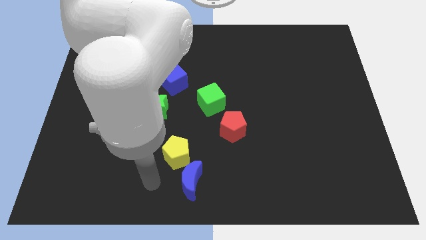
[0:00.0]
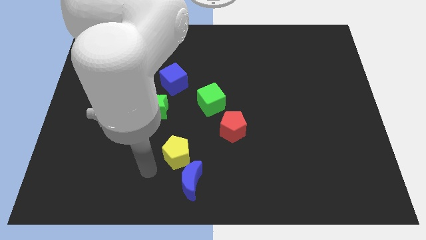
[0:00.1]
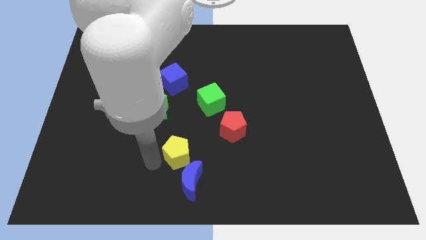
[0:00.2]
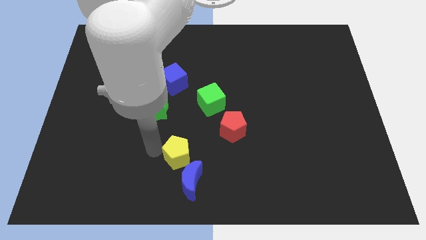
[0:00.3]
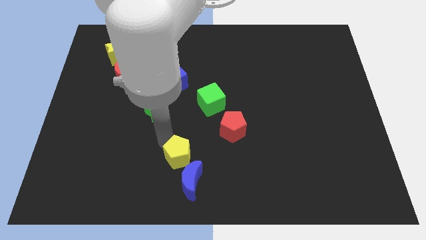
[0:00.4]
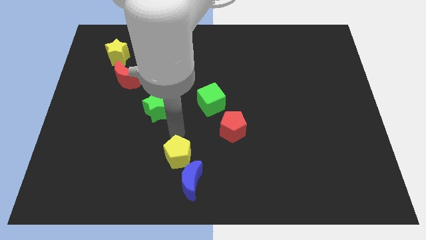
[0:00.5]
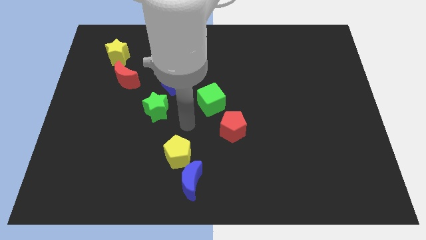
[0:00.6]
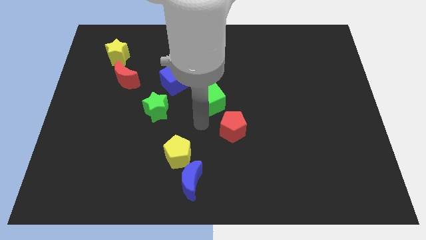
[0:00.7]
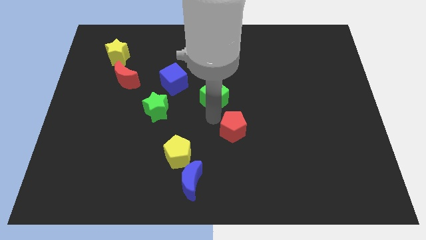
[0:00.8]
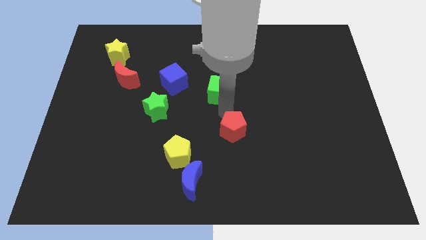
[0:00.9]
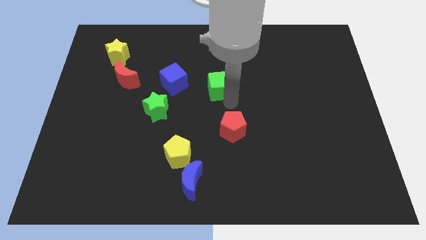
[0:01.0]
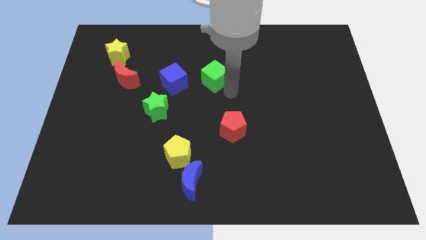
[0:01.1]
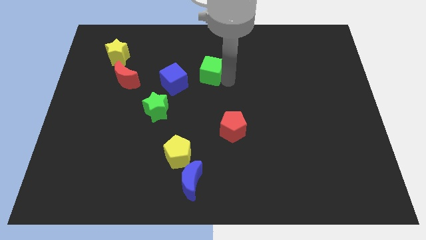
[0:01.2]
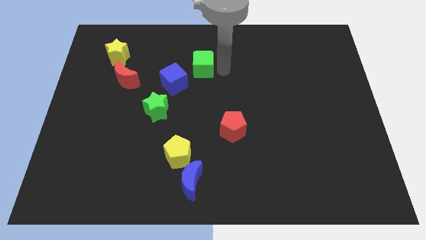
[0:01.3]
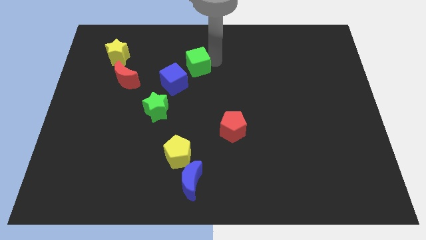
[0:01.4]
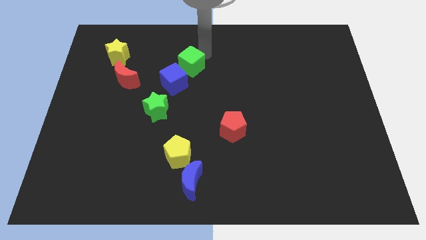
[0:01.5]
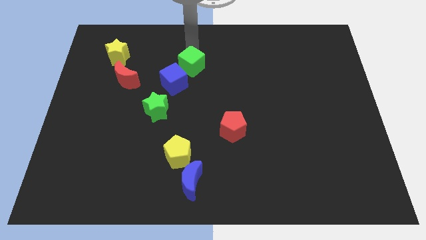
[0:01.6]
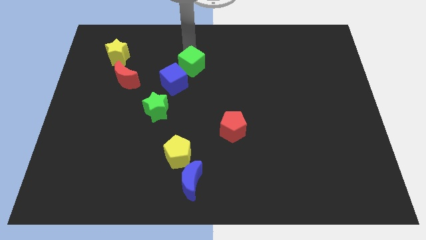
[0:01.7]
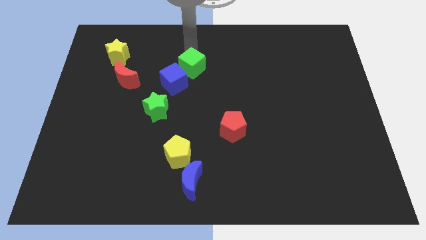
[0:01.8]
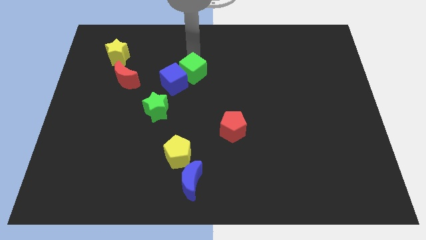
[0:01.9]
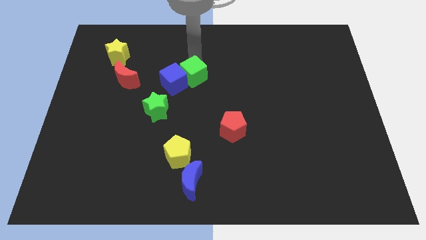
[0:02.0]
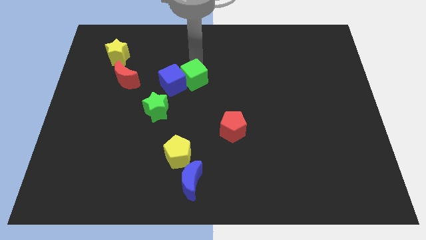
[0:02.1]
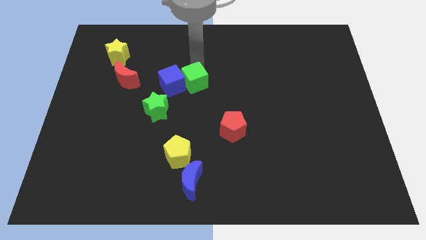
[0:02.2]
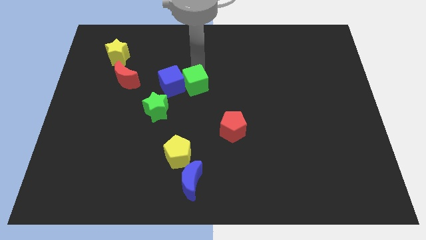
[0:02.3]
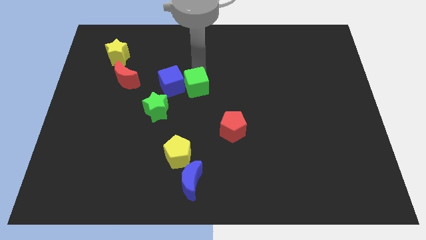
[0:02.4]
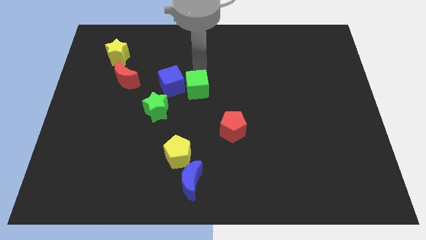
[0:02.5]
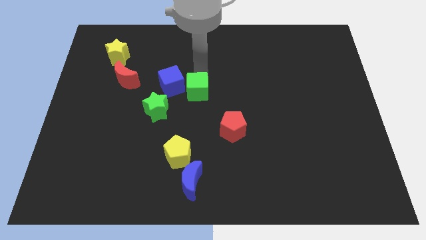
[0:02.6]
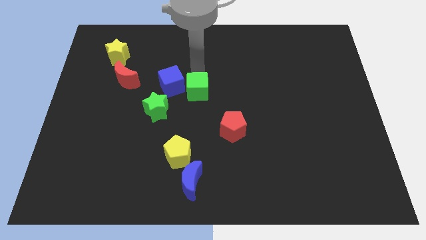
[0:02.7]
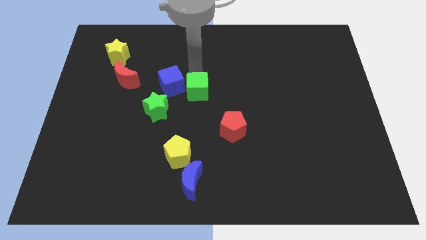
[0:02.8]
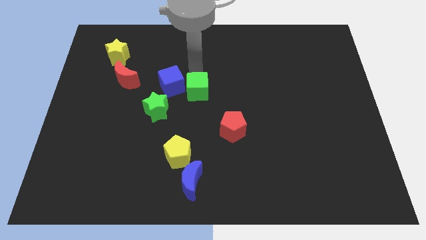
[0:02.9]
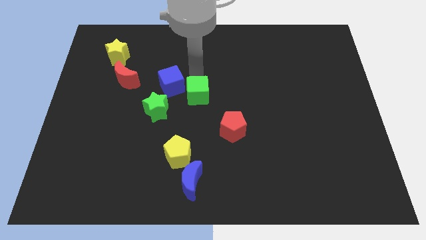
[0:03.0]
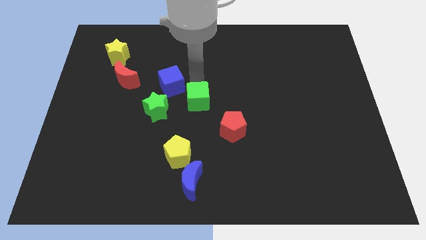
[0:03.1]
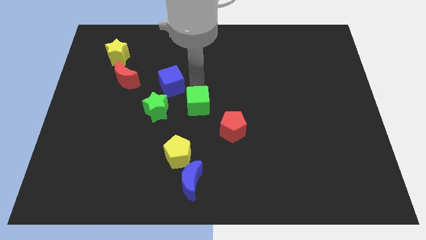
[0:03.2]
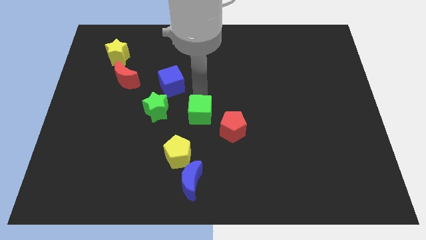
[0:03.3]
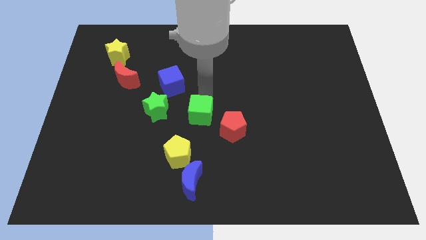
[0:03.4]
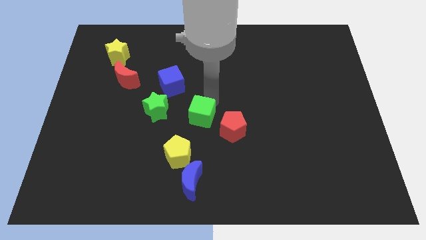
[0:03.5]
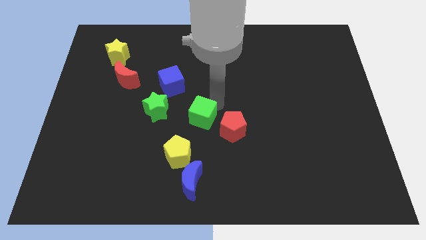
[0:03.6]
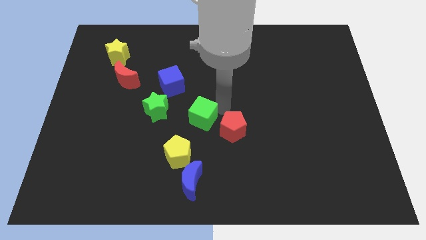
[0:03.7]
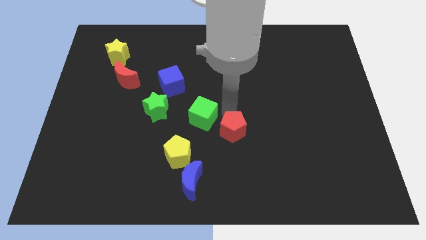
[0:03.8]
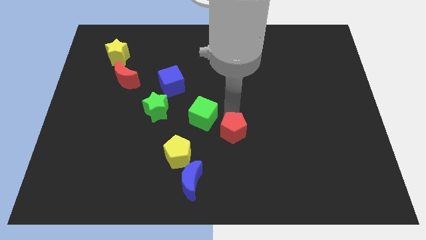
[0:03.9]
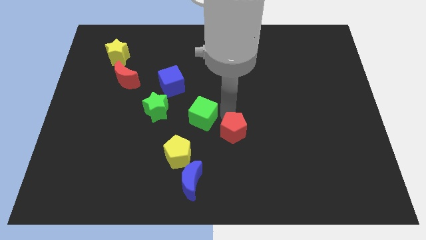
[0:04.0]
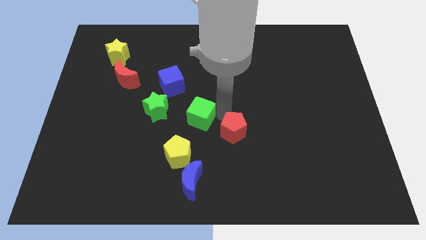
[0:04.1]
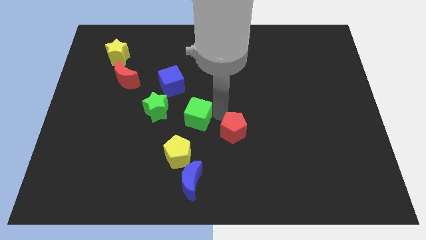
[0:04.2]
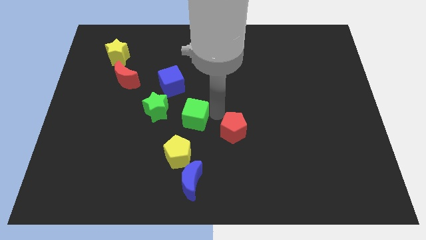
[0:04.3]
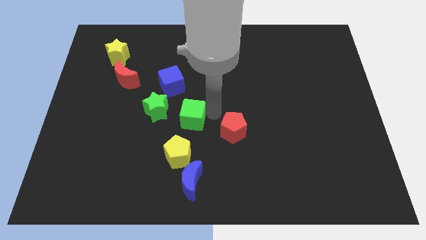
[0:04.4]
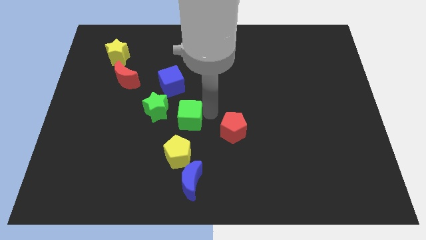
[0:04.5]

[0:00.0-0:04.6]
slide the green cube to the bottom of the blue cube

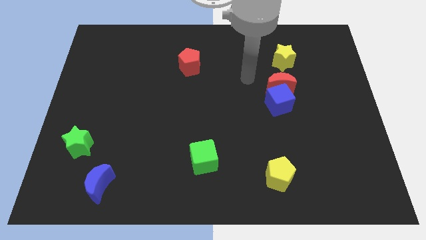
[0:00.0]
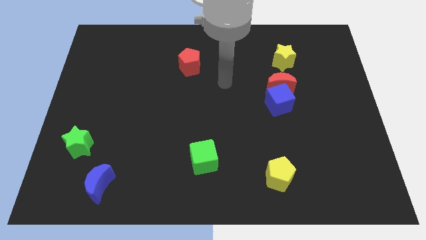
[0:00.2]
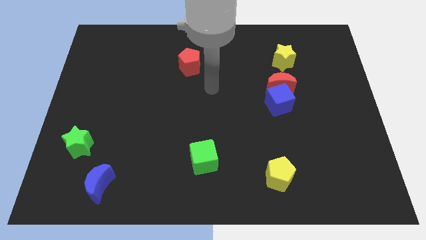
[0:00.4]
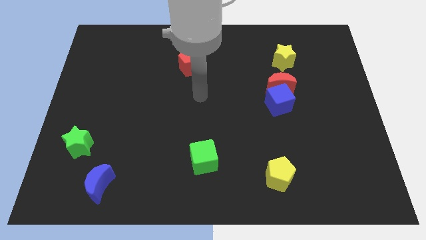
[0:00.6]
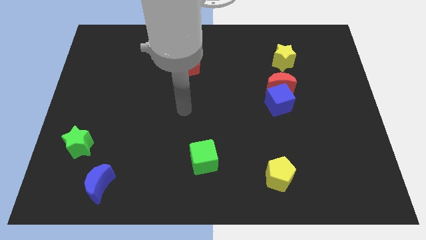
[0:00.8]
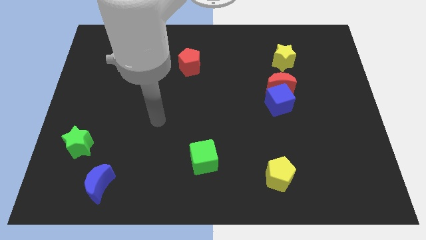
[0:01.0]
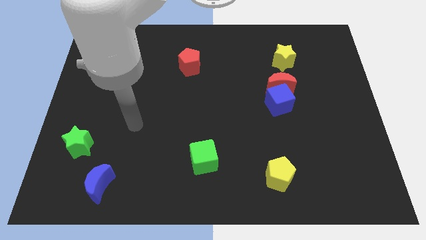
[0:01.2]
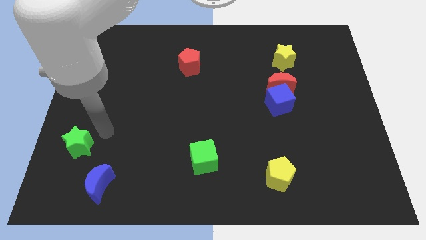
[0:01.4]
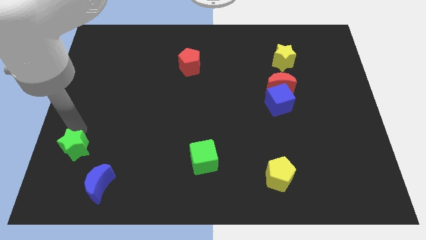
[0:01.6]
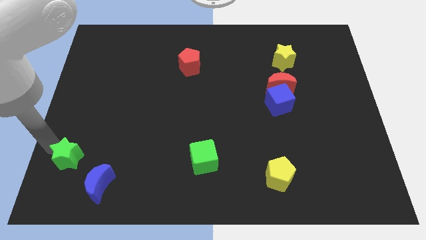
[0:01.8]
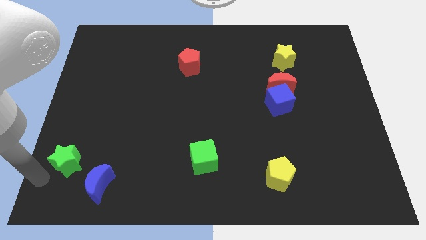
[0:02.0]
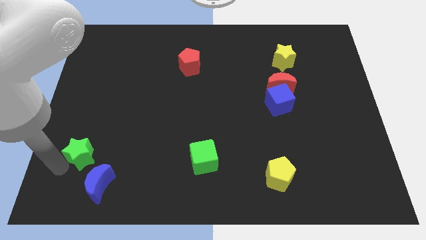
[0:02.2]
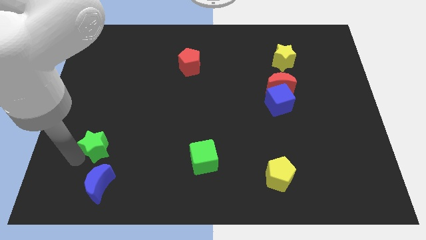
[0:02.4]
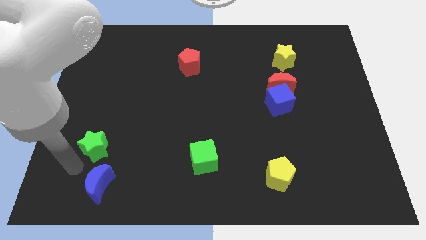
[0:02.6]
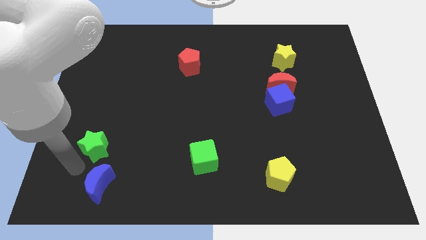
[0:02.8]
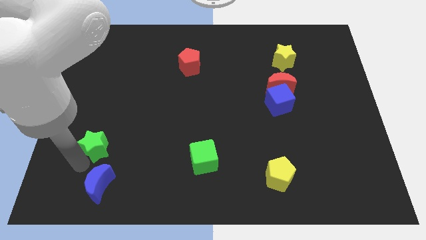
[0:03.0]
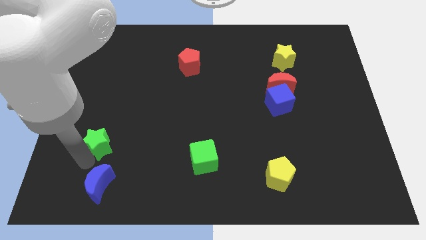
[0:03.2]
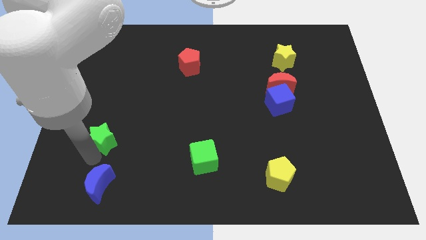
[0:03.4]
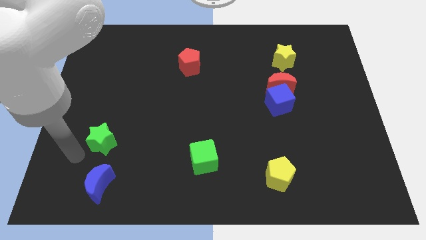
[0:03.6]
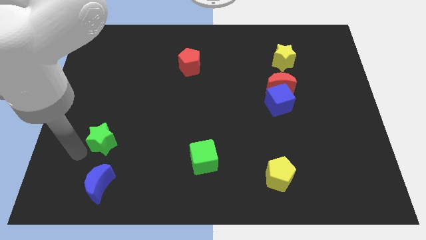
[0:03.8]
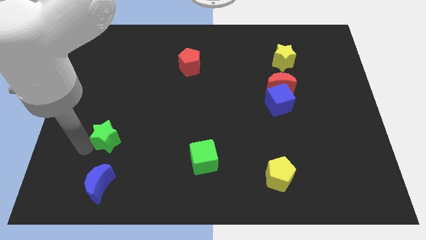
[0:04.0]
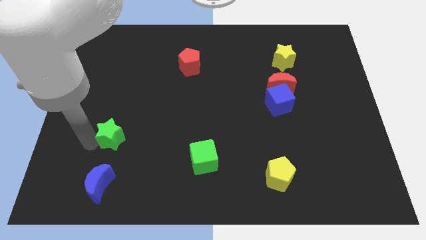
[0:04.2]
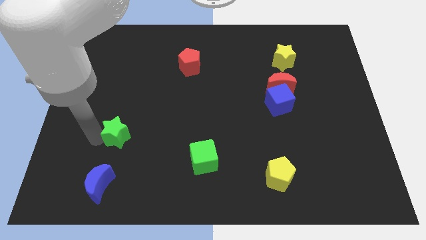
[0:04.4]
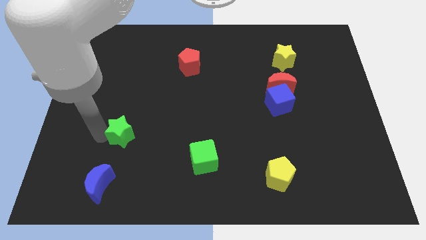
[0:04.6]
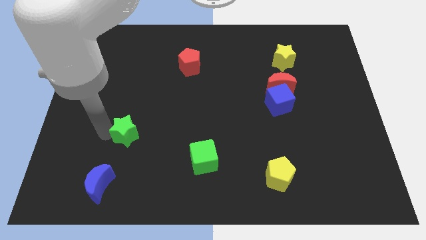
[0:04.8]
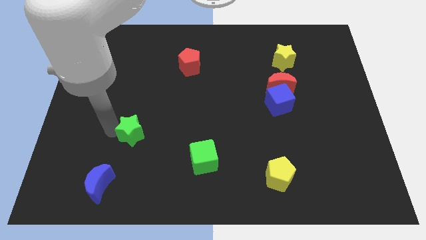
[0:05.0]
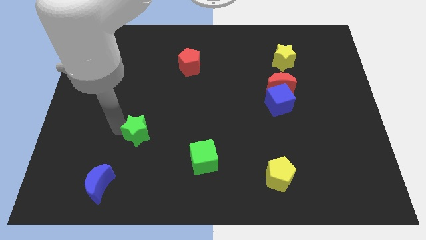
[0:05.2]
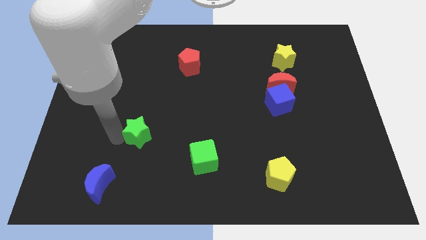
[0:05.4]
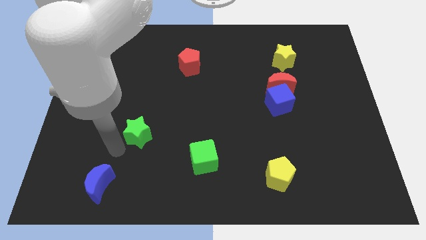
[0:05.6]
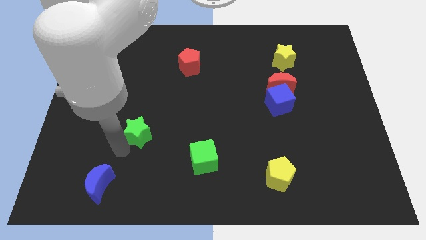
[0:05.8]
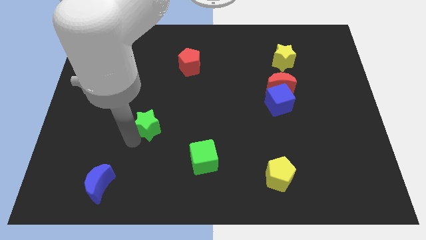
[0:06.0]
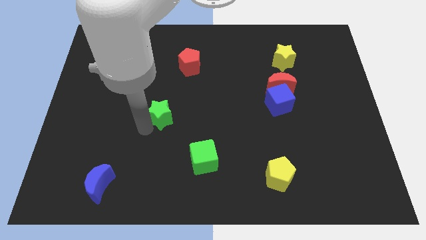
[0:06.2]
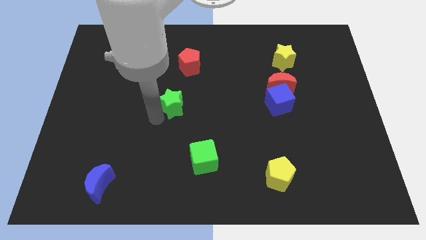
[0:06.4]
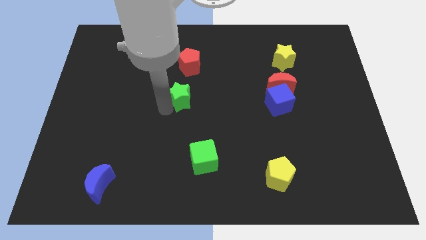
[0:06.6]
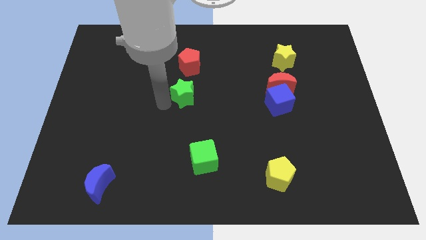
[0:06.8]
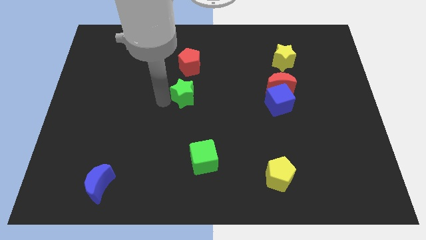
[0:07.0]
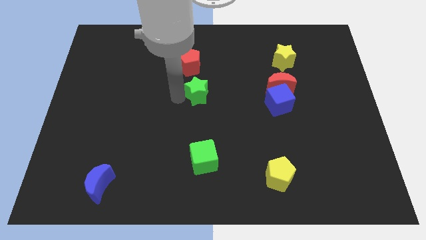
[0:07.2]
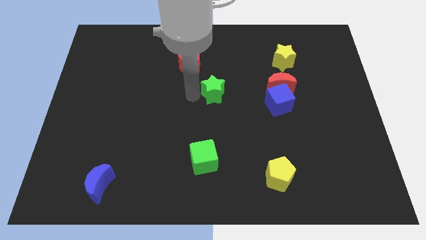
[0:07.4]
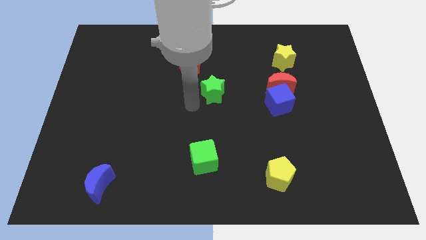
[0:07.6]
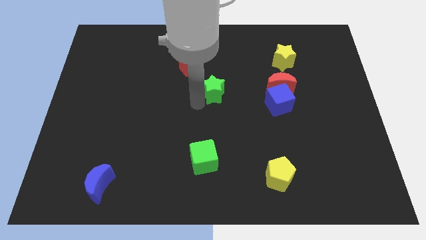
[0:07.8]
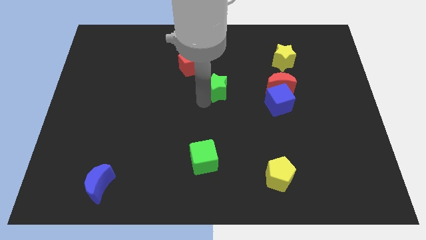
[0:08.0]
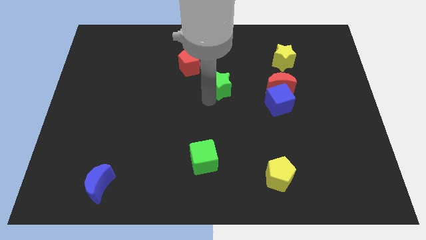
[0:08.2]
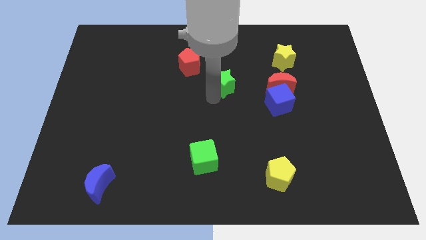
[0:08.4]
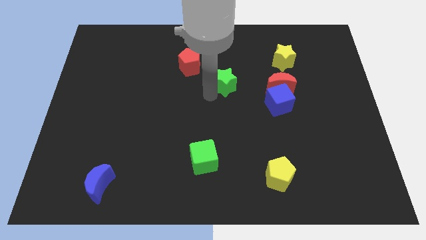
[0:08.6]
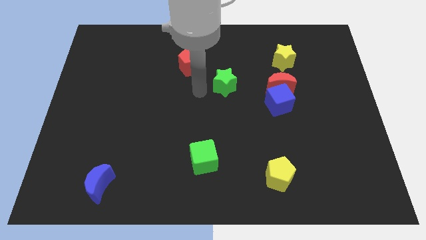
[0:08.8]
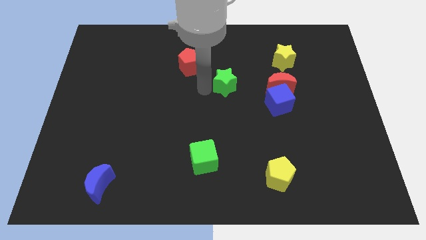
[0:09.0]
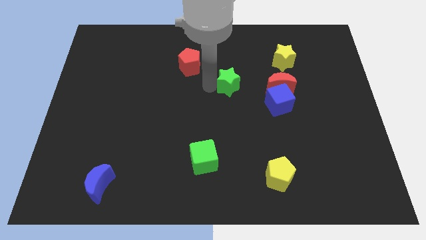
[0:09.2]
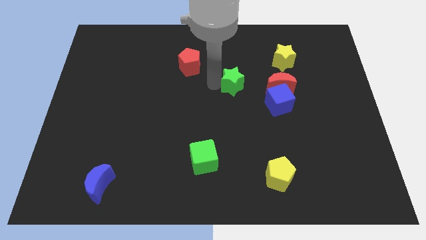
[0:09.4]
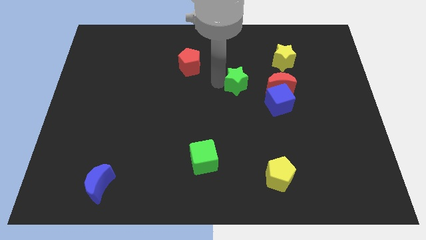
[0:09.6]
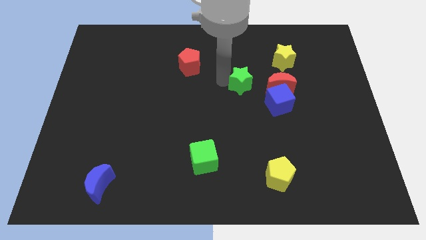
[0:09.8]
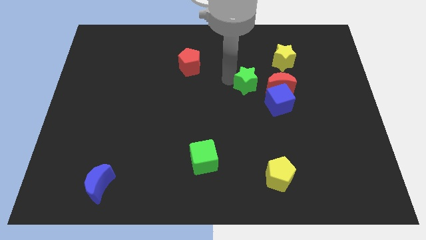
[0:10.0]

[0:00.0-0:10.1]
move the green star diagonally down and to the left of the yellow star
